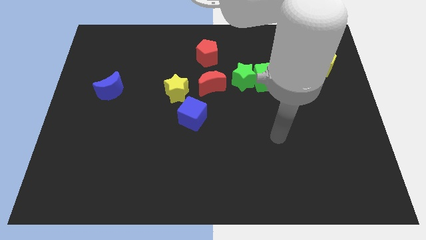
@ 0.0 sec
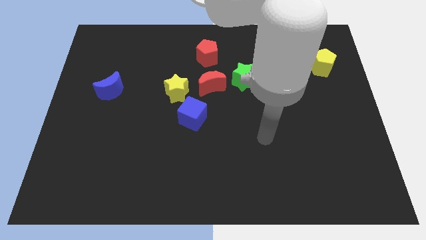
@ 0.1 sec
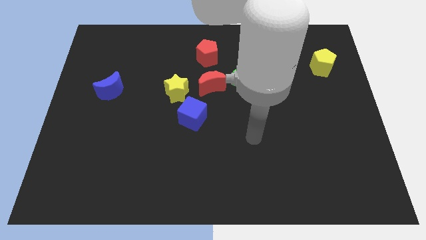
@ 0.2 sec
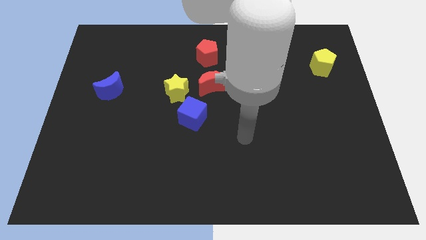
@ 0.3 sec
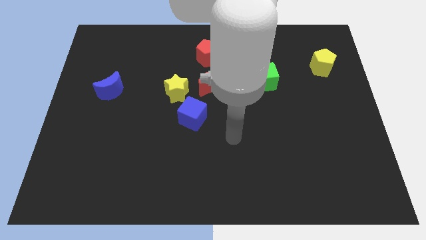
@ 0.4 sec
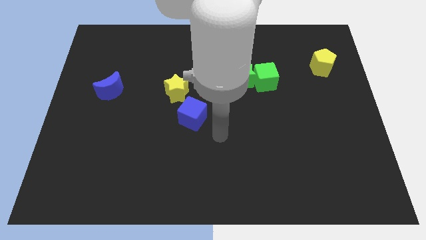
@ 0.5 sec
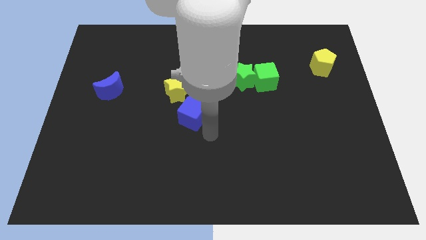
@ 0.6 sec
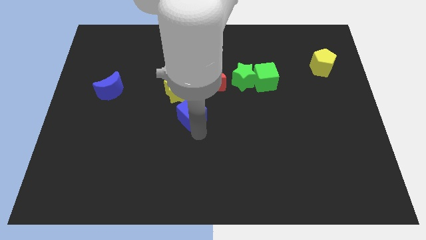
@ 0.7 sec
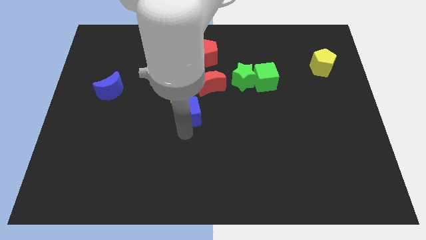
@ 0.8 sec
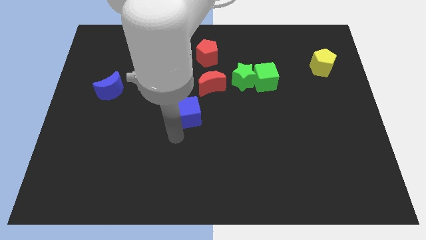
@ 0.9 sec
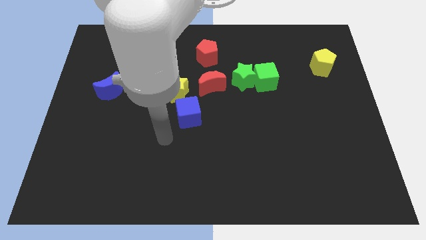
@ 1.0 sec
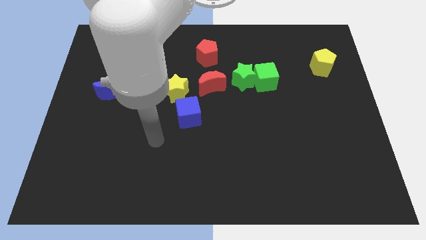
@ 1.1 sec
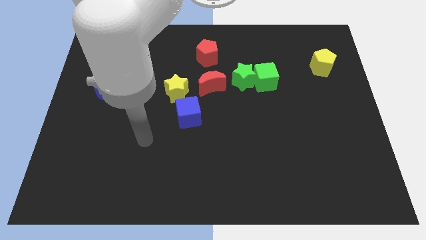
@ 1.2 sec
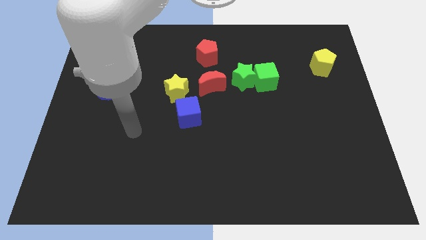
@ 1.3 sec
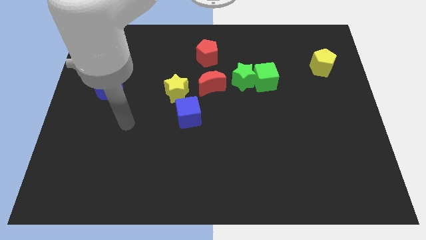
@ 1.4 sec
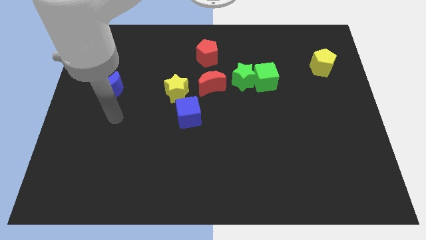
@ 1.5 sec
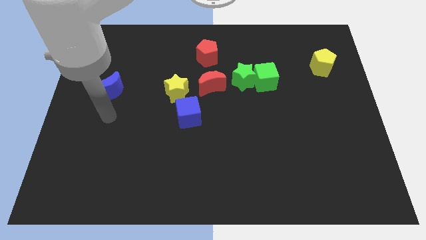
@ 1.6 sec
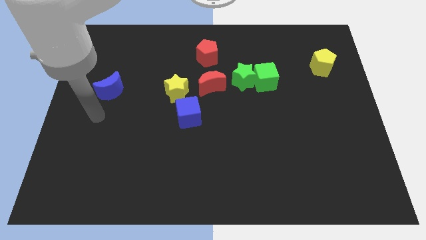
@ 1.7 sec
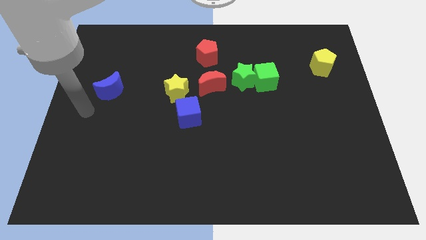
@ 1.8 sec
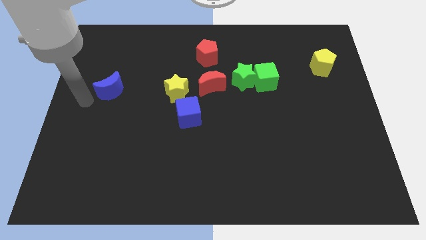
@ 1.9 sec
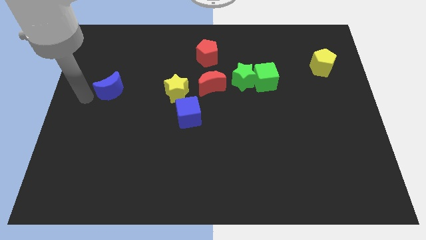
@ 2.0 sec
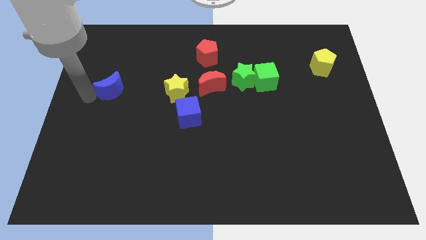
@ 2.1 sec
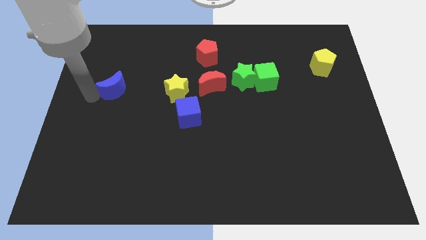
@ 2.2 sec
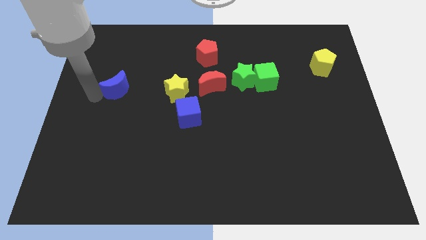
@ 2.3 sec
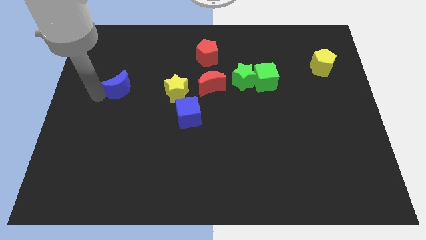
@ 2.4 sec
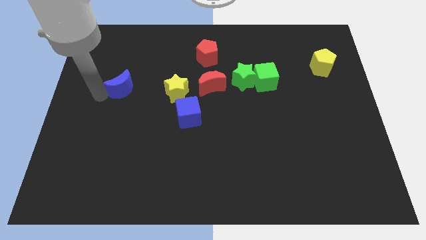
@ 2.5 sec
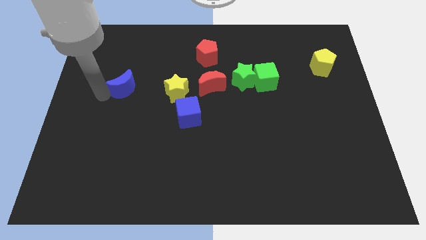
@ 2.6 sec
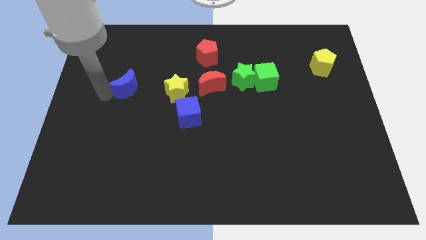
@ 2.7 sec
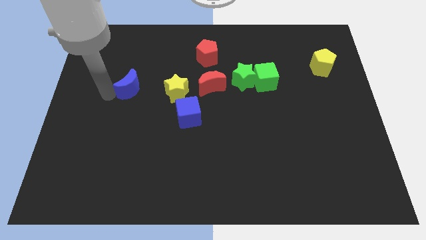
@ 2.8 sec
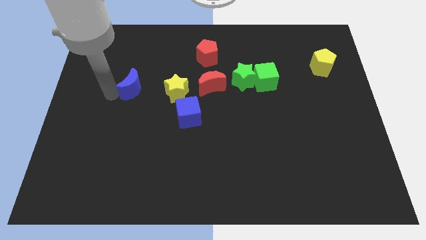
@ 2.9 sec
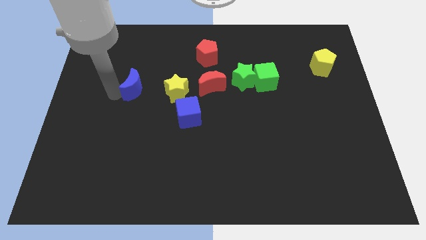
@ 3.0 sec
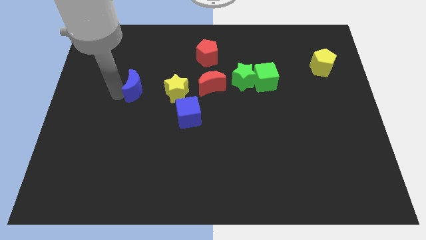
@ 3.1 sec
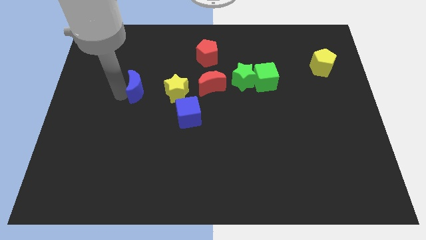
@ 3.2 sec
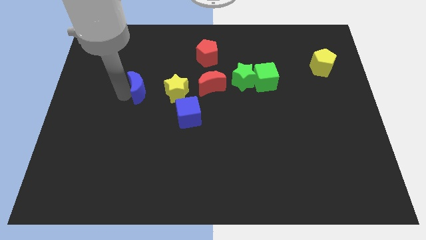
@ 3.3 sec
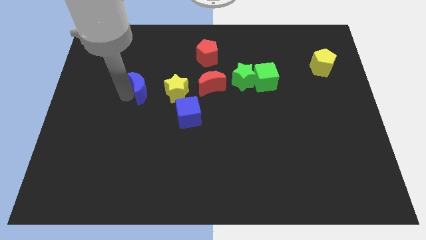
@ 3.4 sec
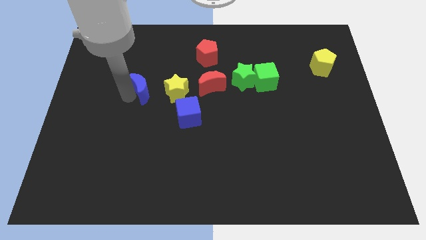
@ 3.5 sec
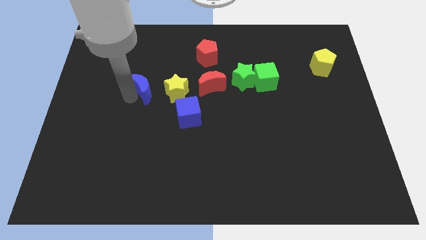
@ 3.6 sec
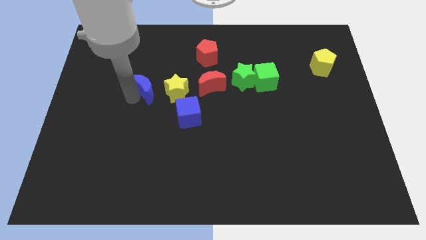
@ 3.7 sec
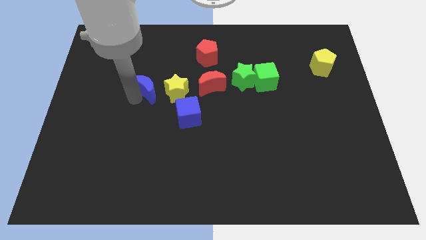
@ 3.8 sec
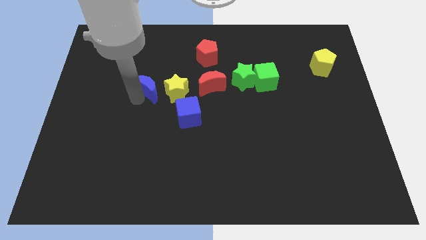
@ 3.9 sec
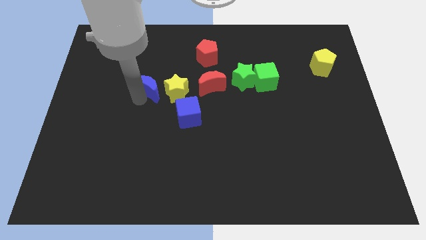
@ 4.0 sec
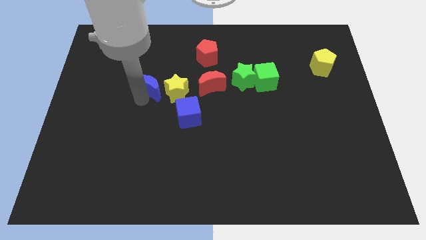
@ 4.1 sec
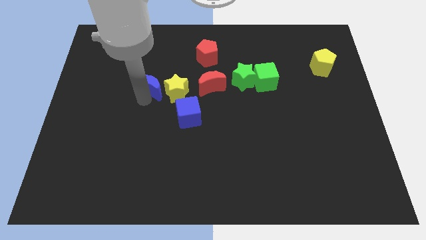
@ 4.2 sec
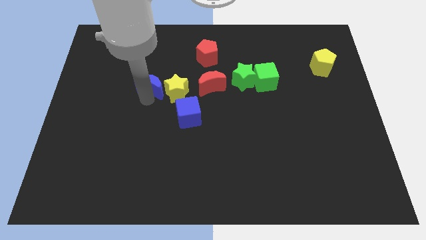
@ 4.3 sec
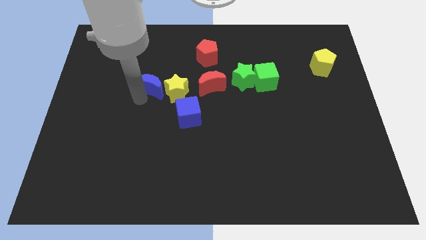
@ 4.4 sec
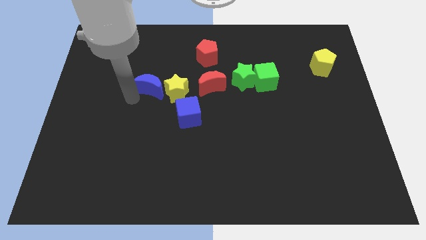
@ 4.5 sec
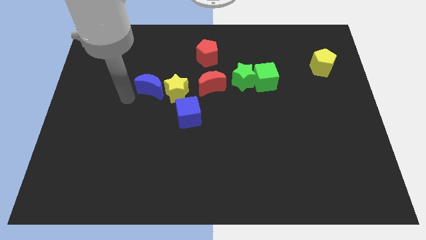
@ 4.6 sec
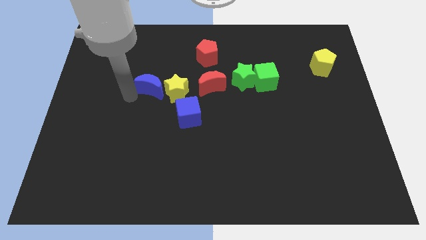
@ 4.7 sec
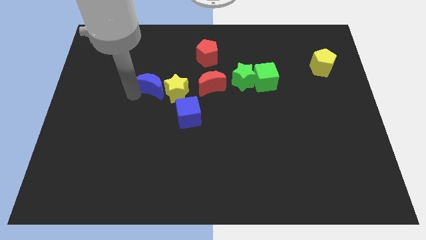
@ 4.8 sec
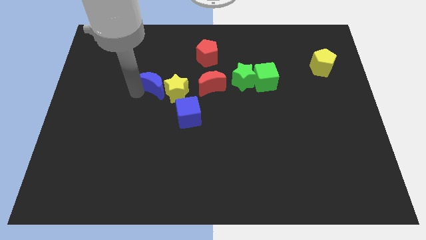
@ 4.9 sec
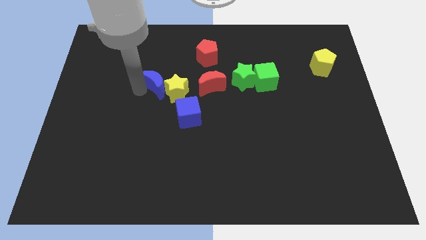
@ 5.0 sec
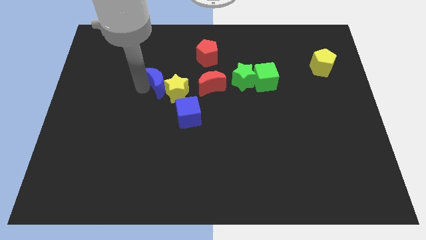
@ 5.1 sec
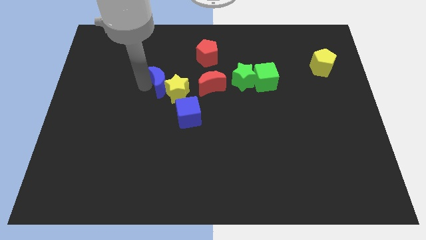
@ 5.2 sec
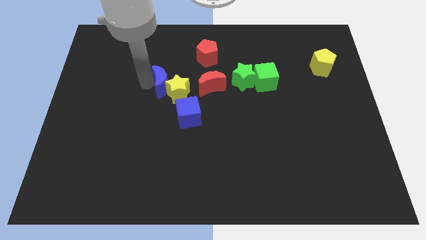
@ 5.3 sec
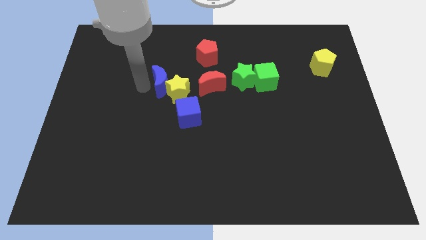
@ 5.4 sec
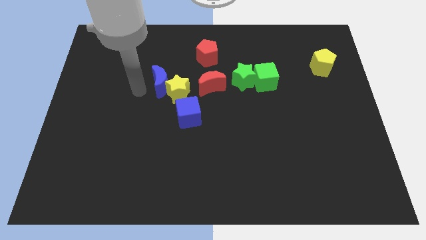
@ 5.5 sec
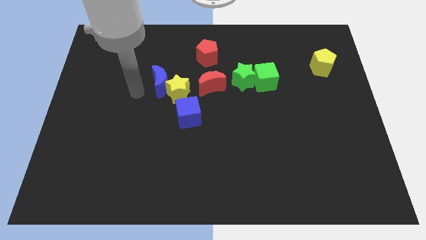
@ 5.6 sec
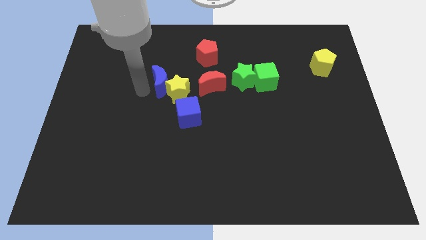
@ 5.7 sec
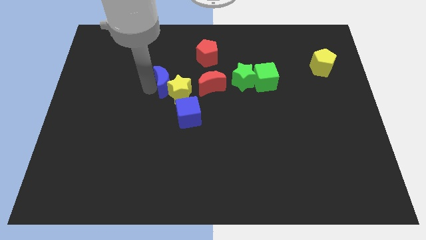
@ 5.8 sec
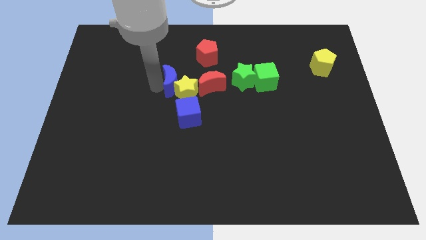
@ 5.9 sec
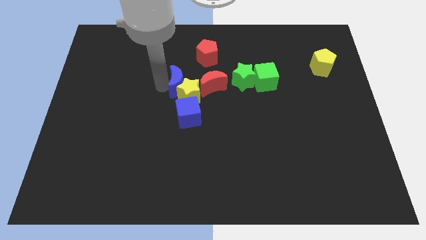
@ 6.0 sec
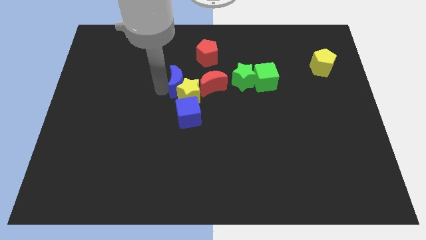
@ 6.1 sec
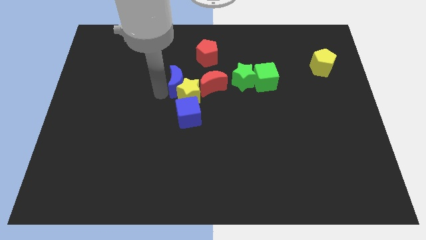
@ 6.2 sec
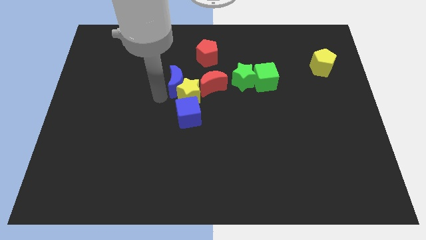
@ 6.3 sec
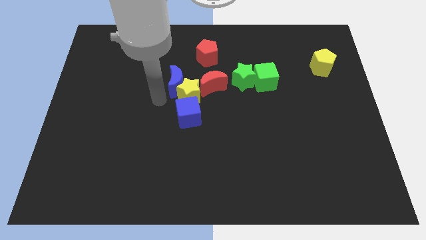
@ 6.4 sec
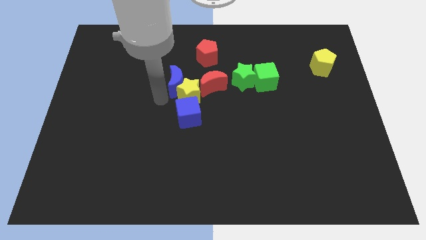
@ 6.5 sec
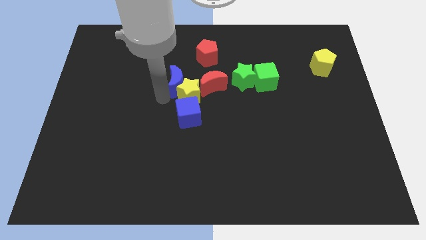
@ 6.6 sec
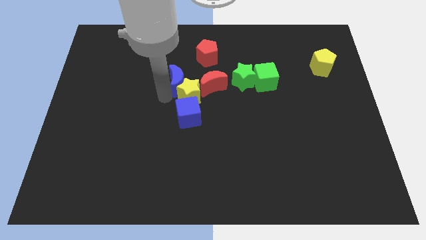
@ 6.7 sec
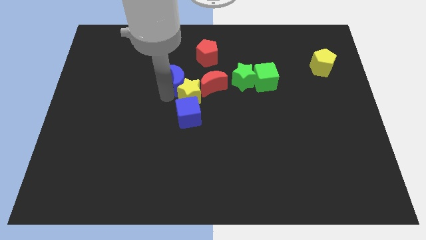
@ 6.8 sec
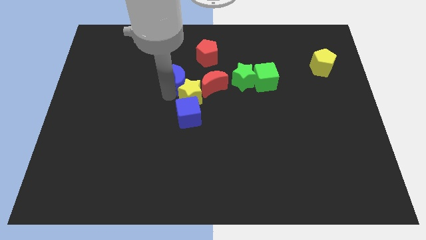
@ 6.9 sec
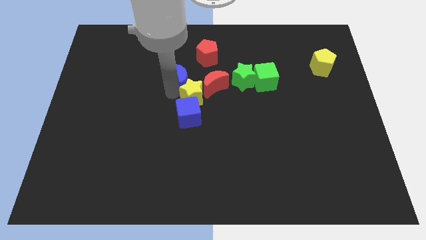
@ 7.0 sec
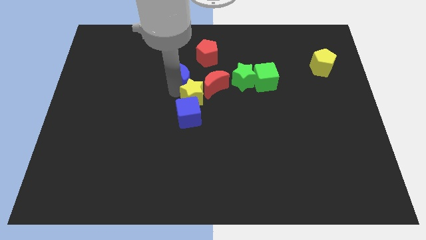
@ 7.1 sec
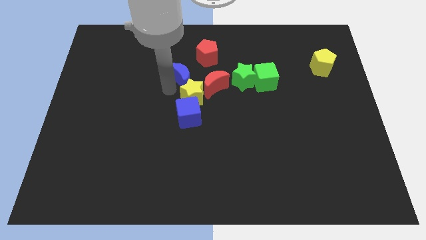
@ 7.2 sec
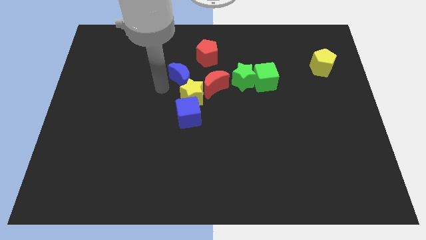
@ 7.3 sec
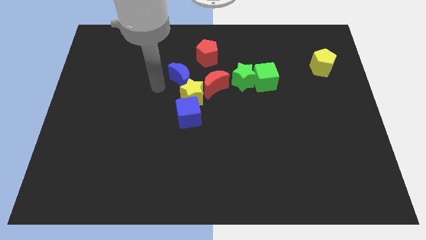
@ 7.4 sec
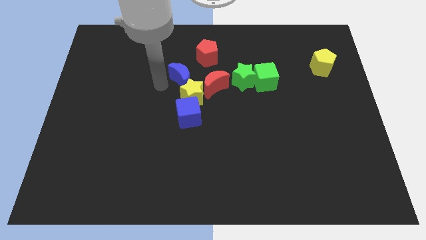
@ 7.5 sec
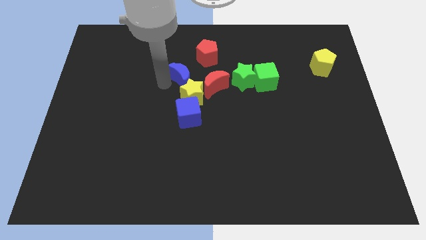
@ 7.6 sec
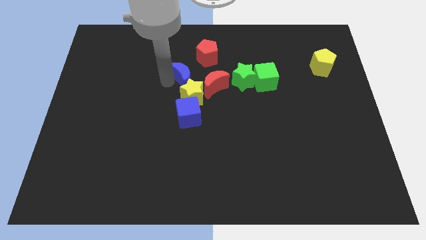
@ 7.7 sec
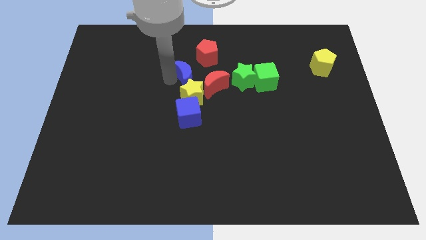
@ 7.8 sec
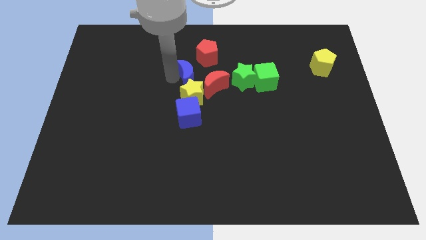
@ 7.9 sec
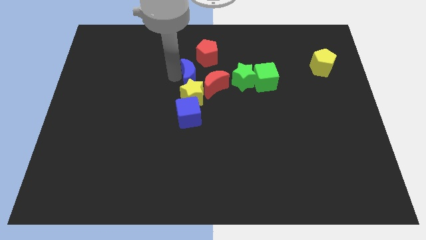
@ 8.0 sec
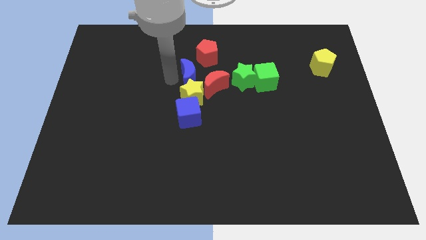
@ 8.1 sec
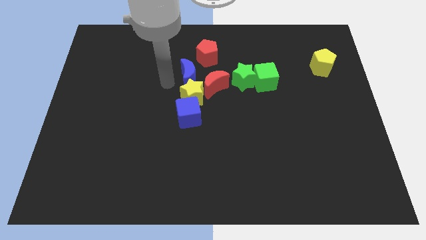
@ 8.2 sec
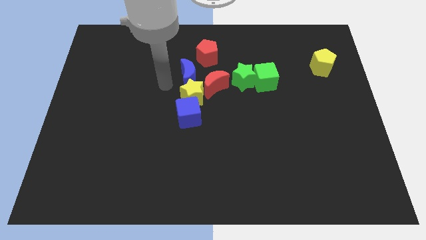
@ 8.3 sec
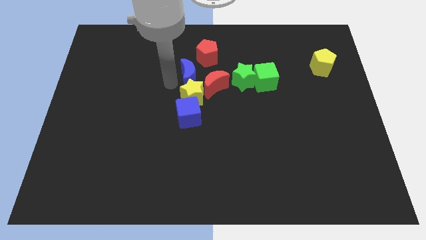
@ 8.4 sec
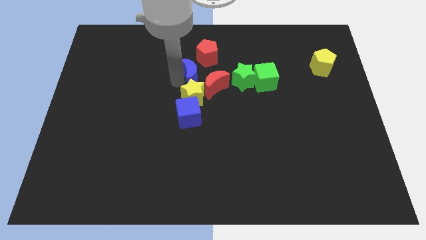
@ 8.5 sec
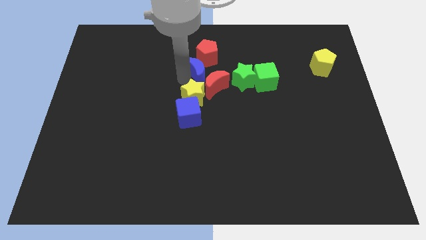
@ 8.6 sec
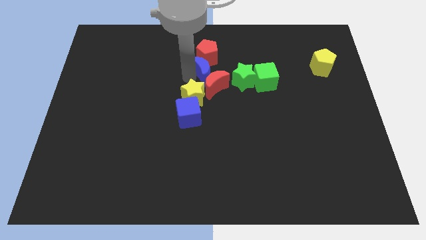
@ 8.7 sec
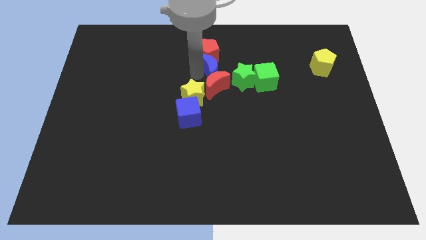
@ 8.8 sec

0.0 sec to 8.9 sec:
move the blue moon diagonally up and to the right of the red moon
